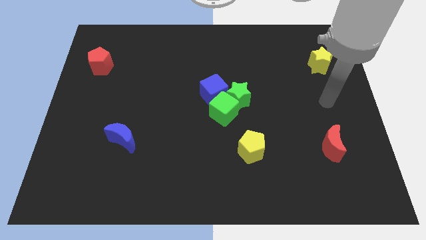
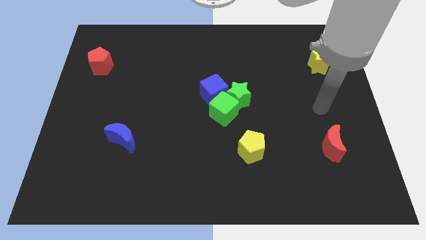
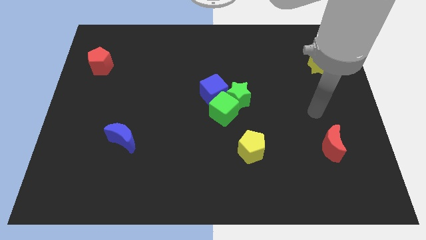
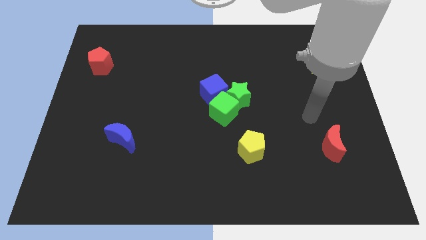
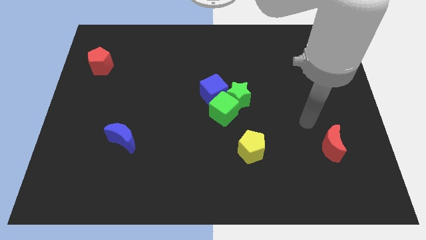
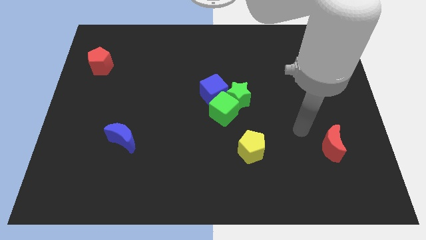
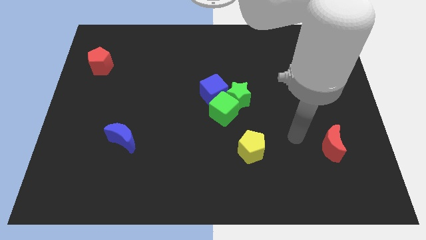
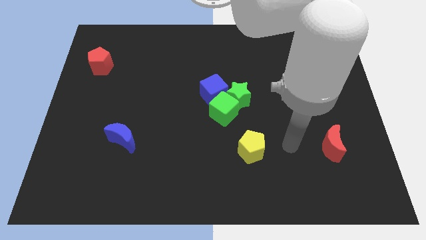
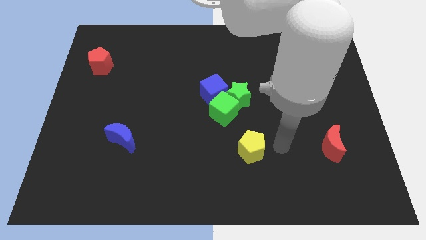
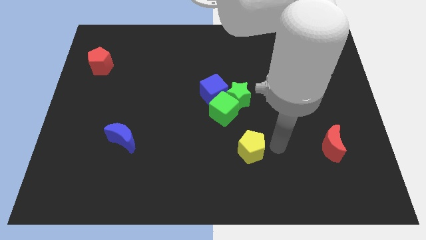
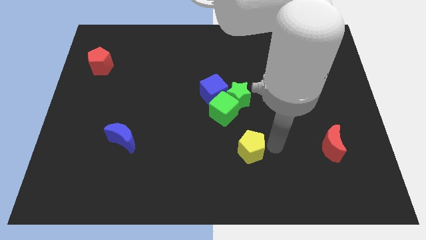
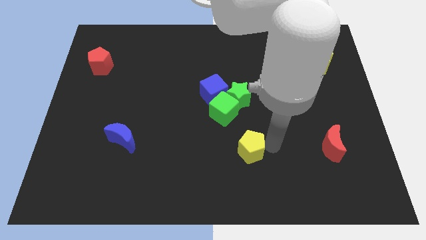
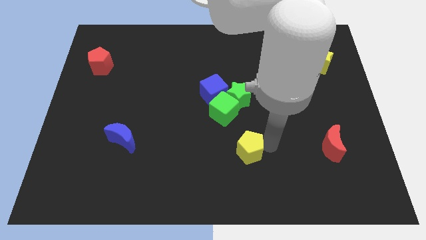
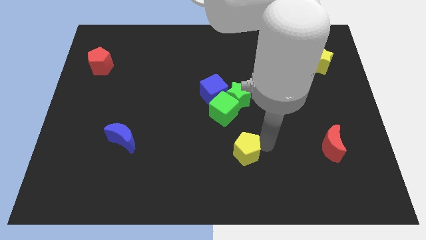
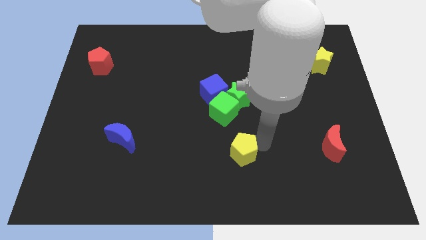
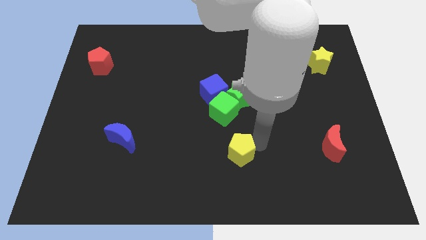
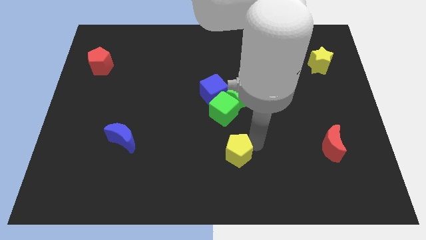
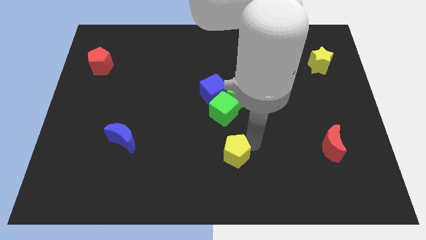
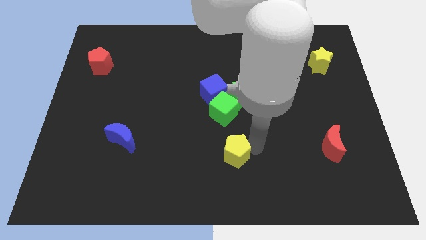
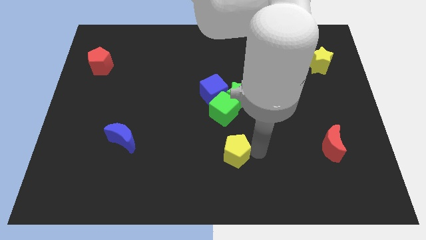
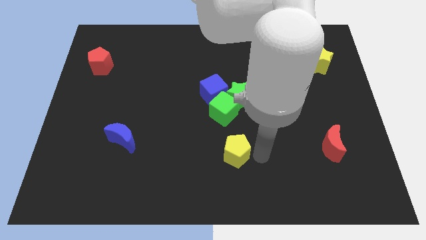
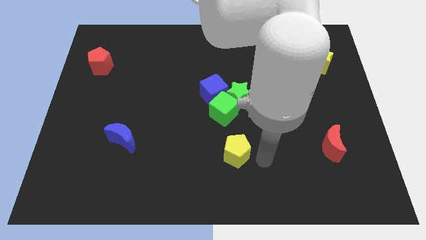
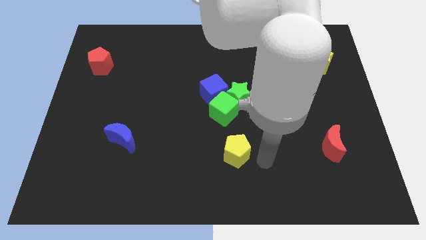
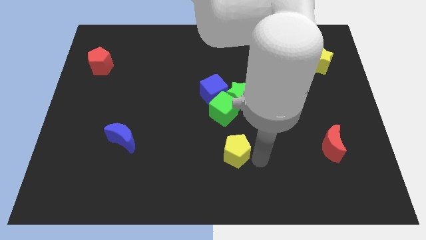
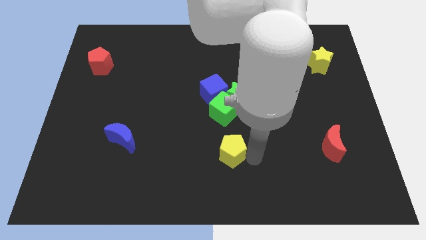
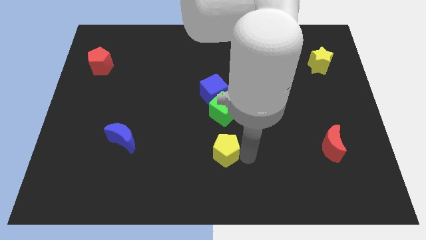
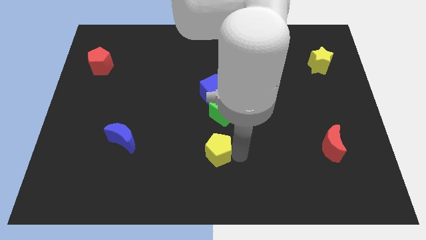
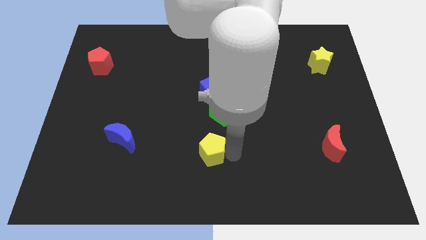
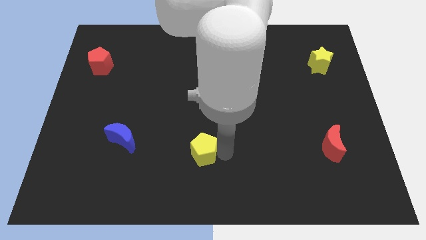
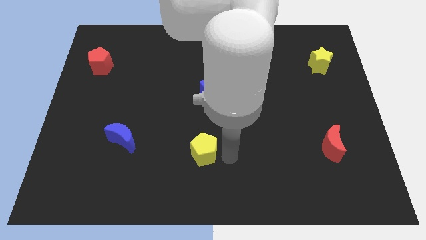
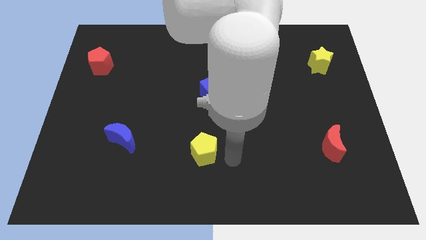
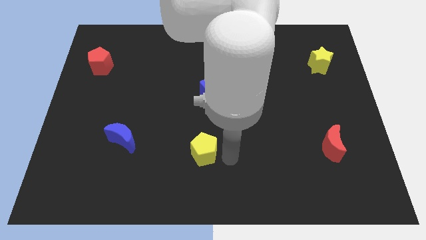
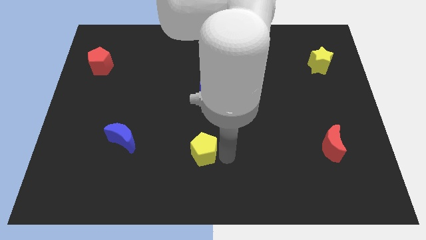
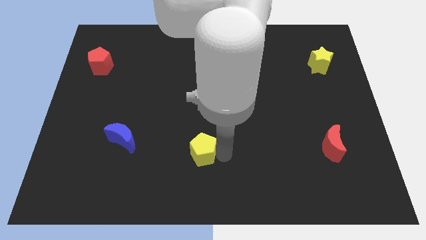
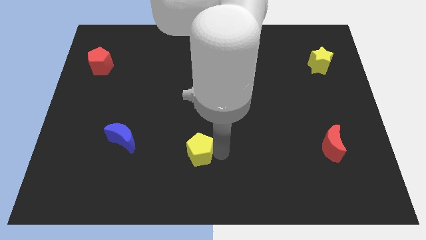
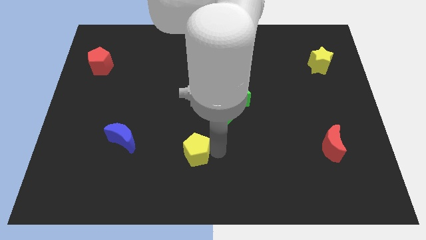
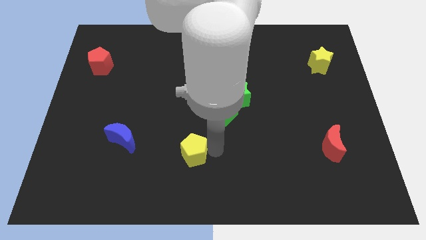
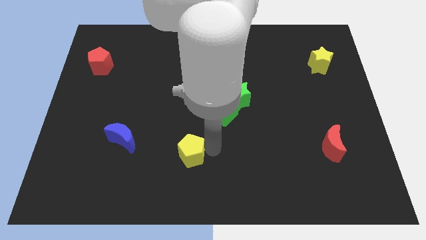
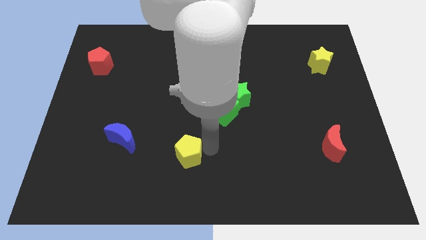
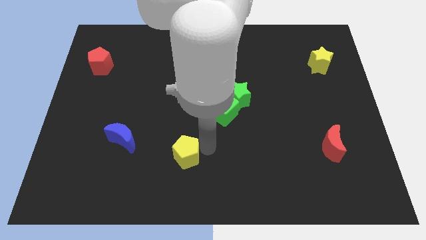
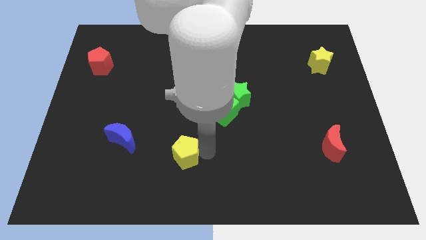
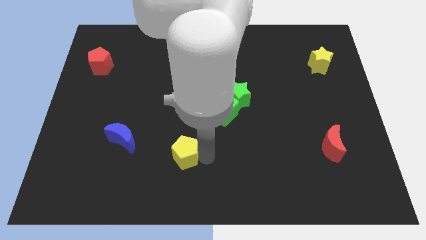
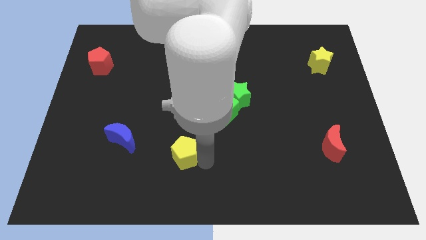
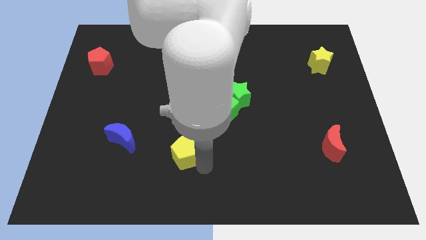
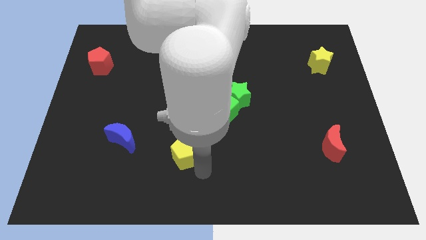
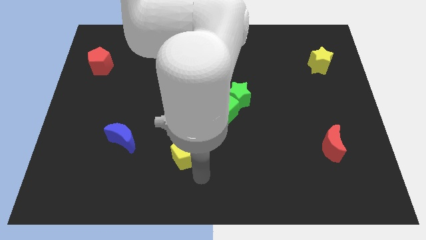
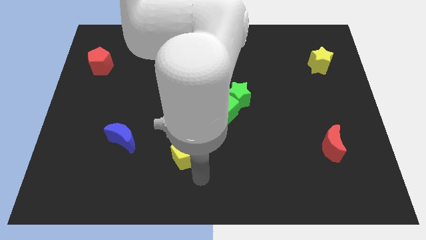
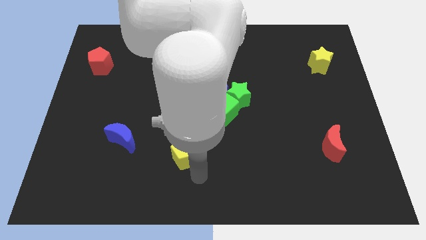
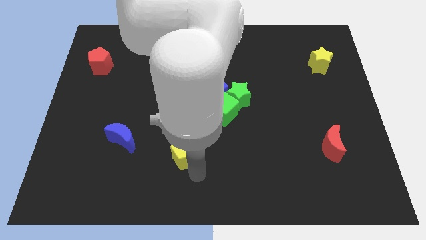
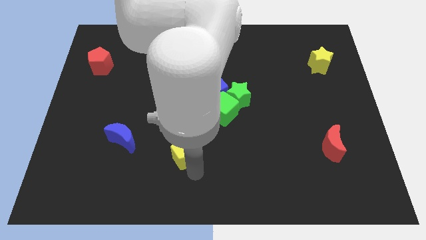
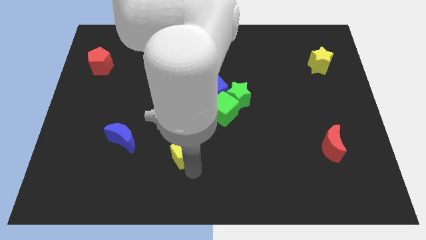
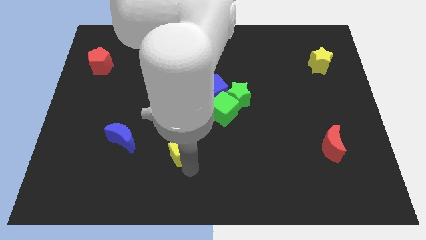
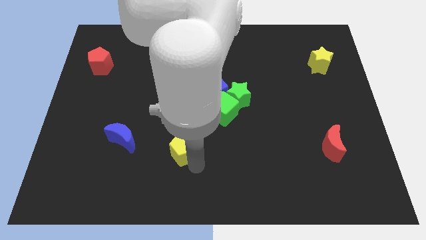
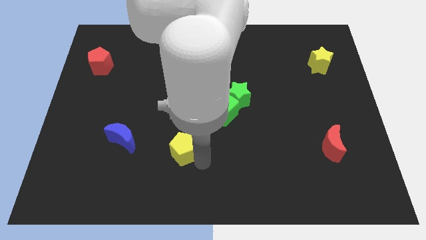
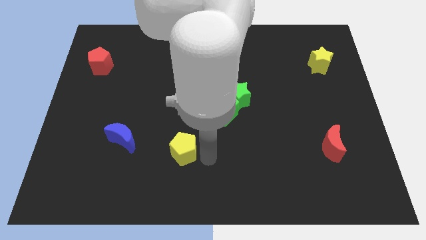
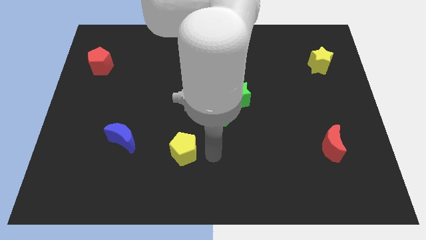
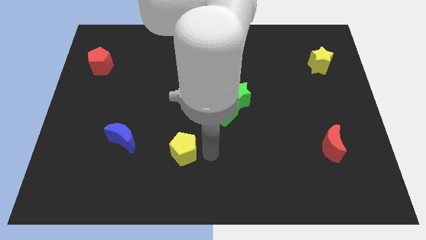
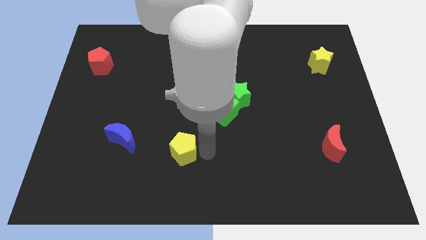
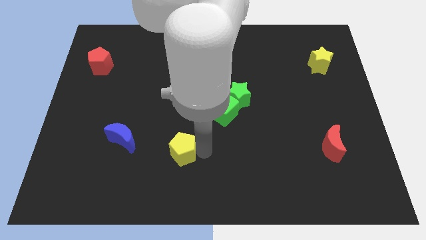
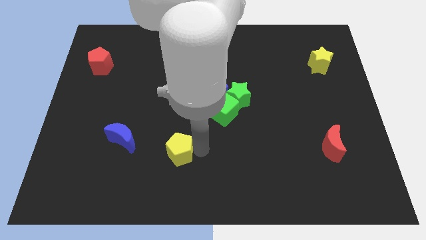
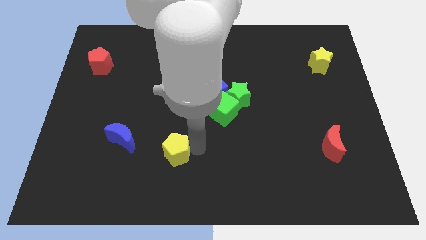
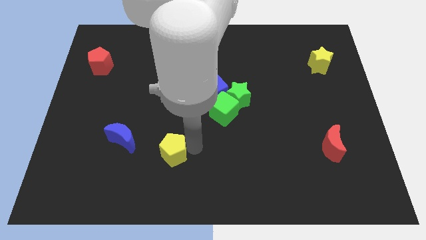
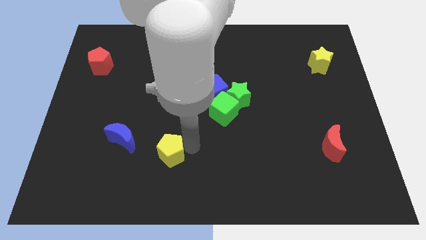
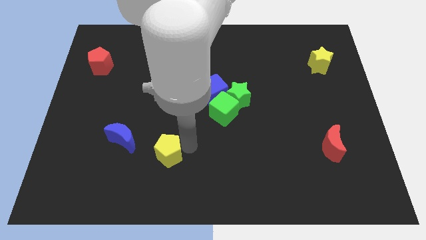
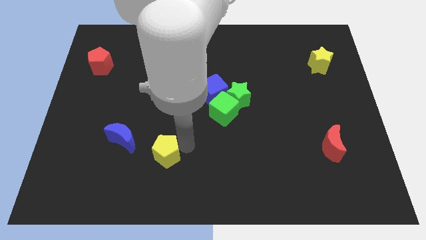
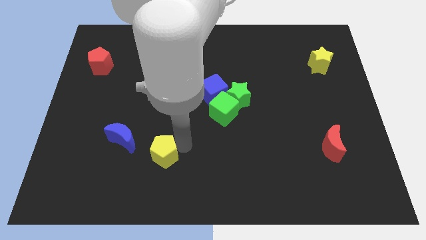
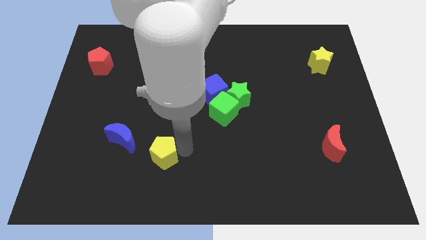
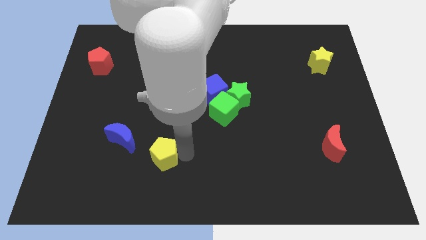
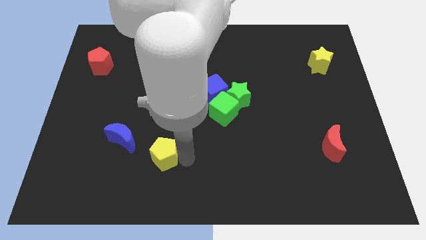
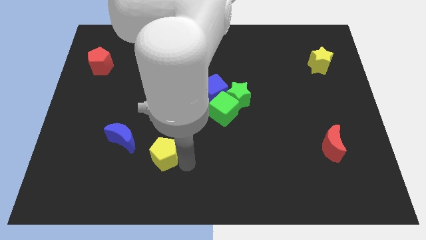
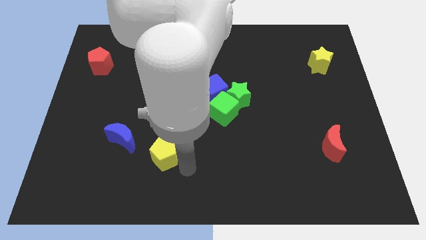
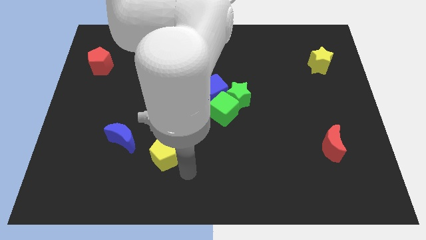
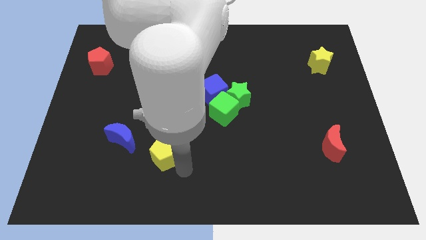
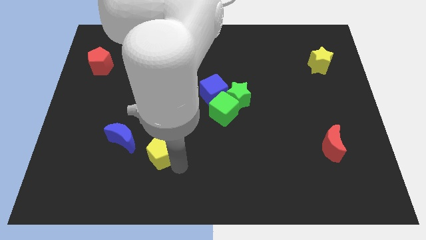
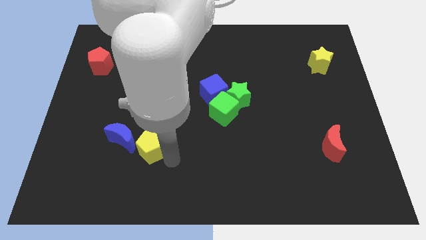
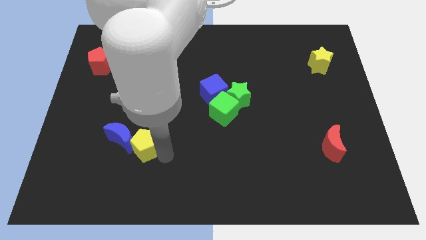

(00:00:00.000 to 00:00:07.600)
slide the yellow pentagon next to the blue moon

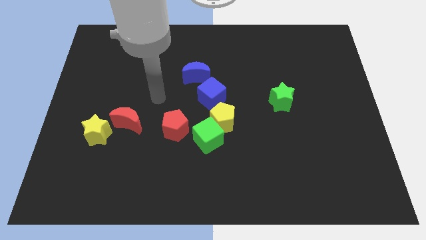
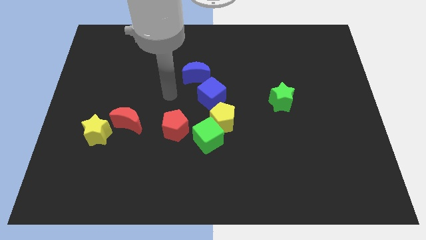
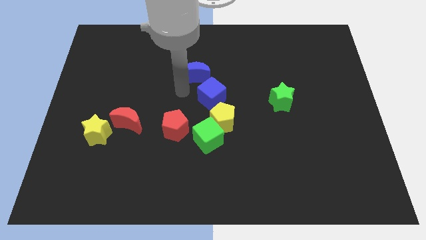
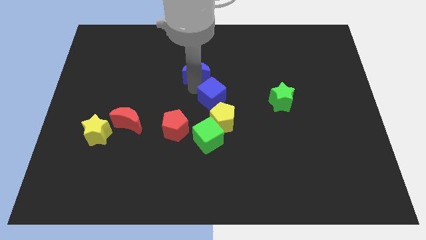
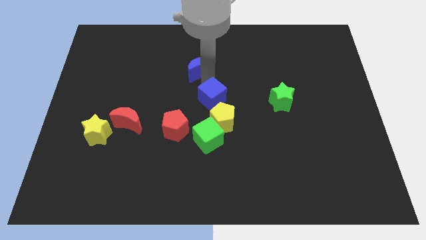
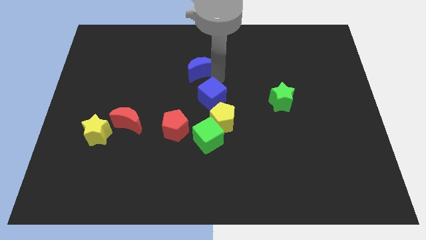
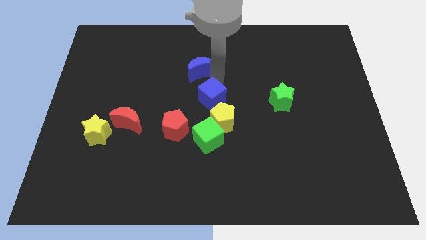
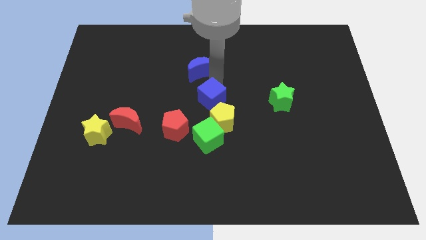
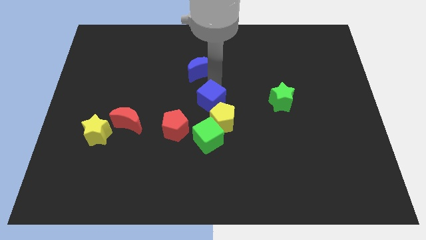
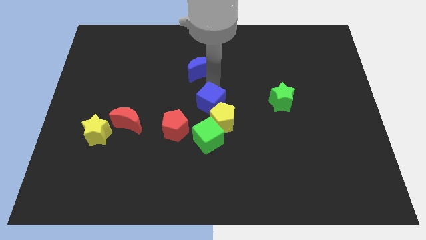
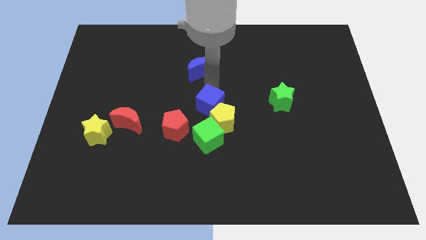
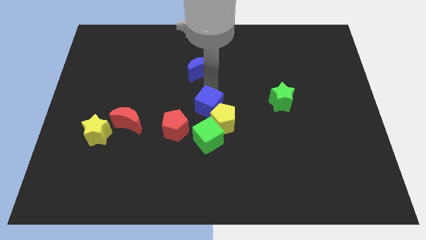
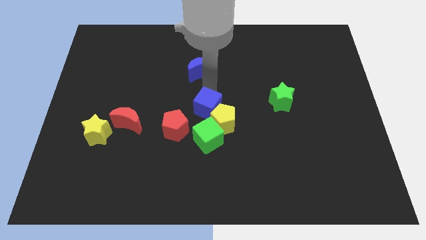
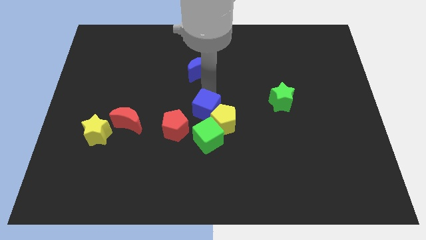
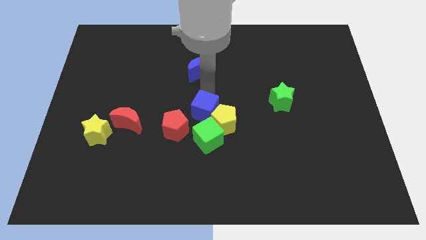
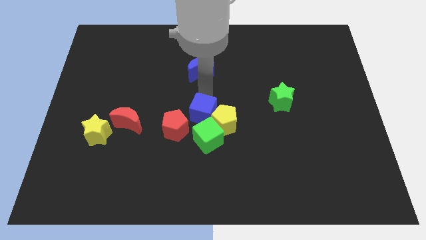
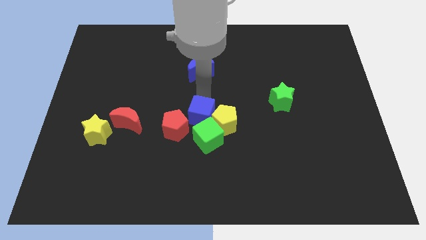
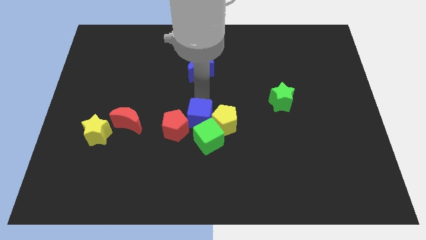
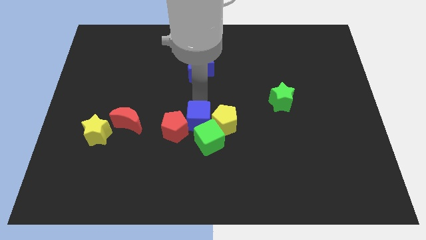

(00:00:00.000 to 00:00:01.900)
move the blue cube next to the green cube
